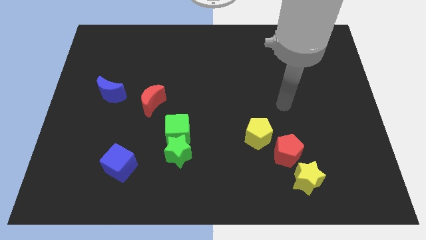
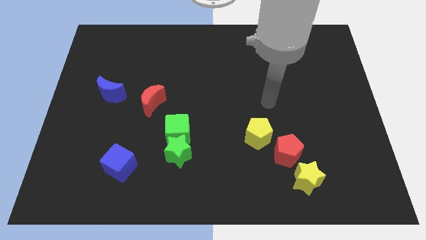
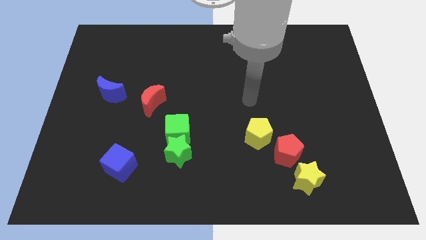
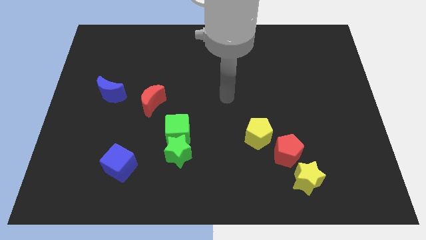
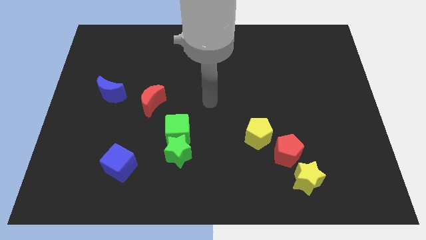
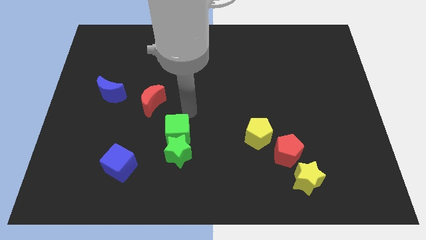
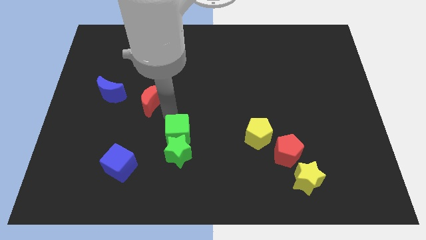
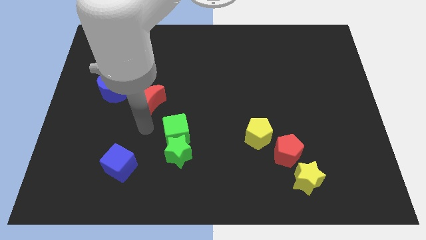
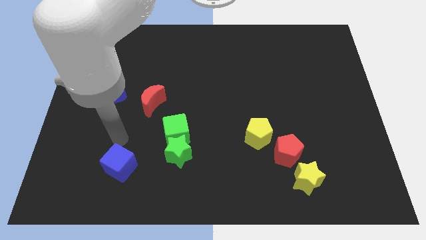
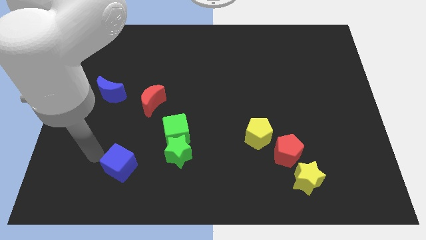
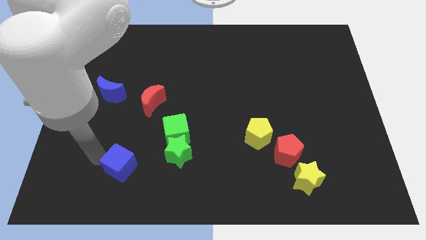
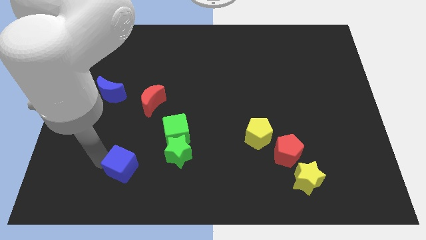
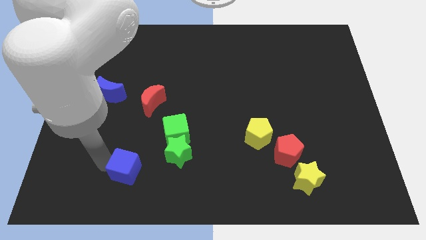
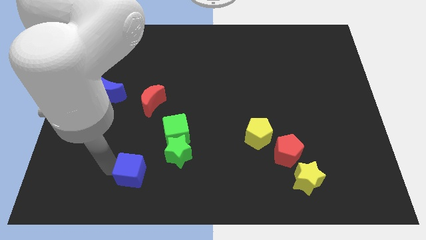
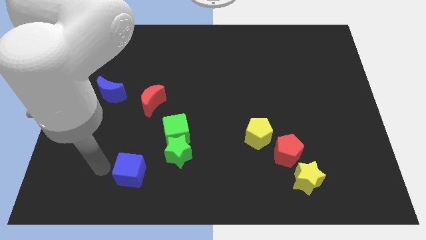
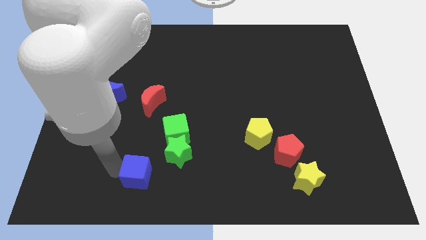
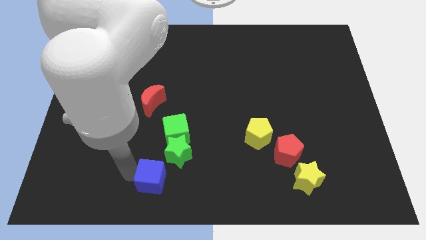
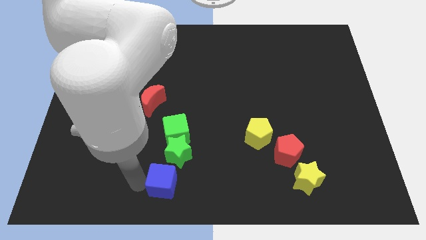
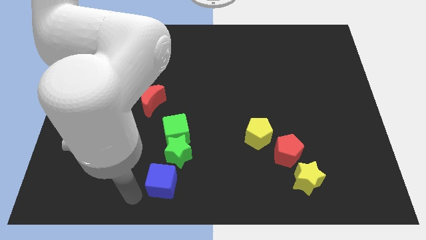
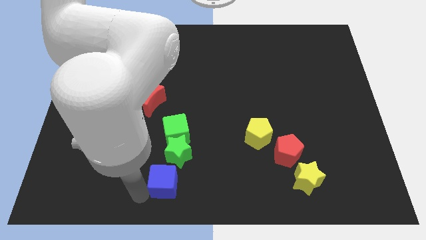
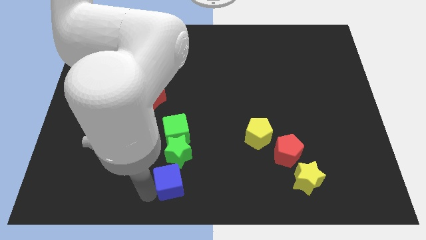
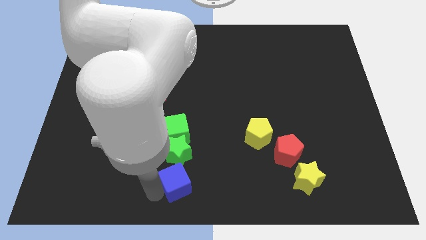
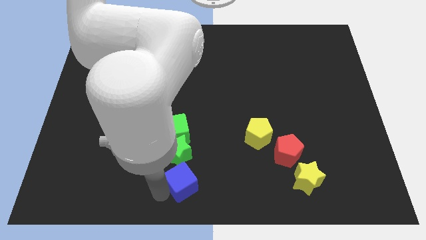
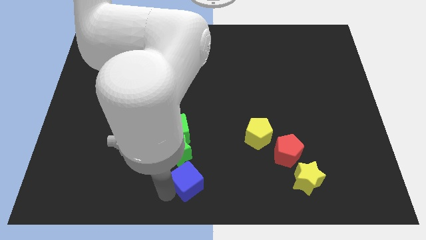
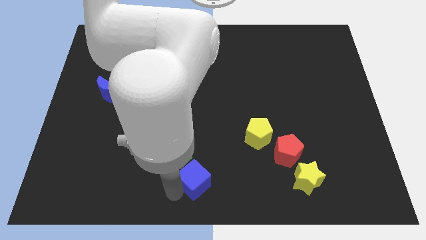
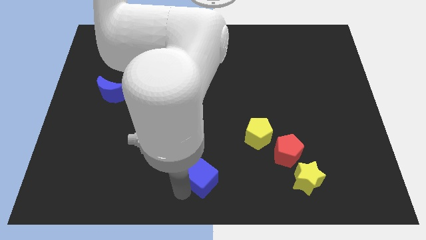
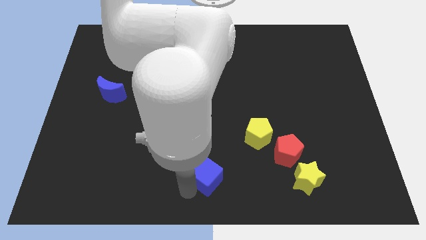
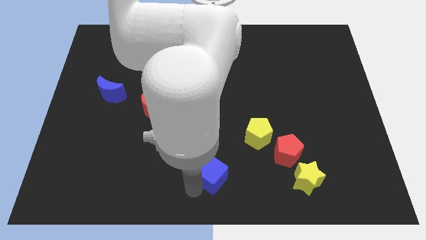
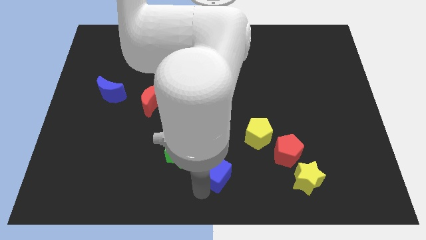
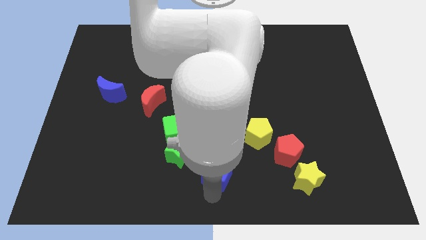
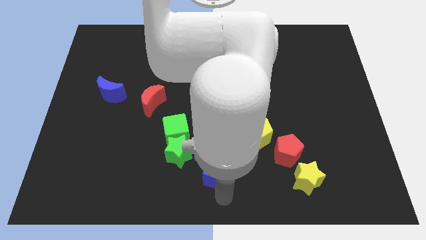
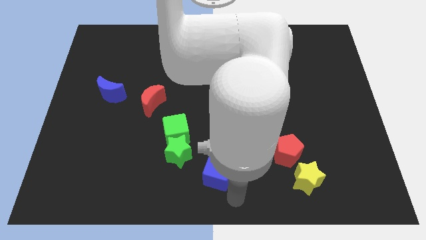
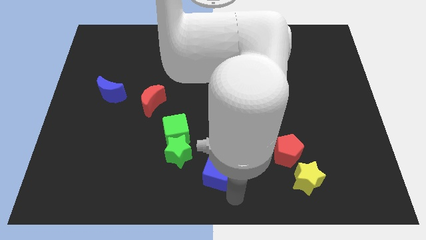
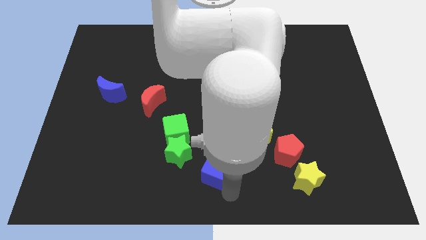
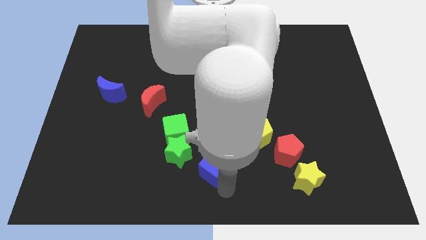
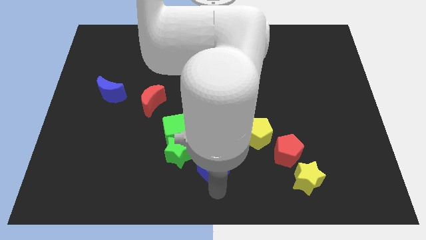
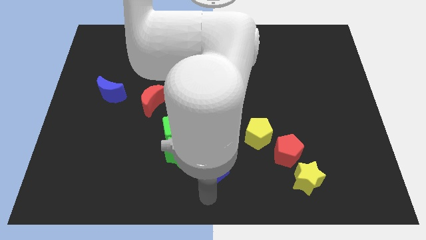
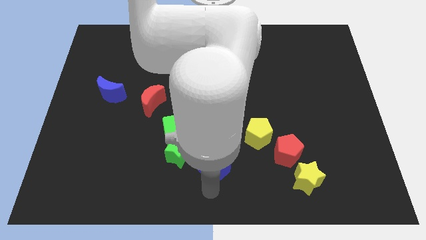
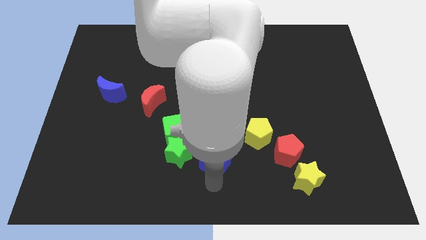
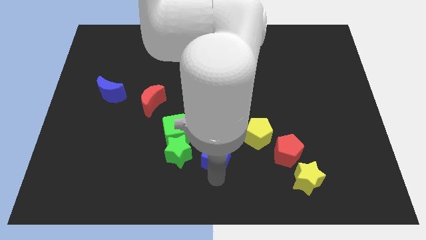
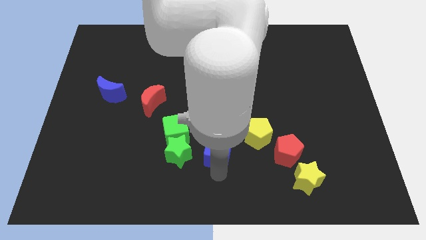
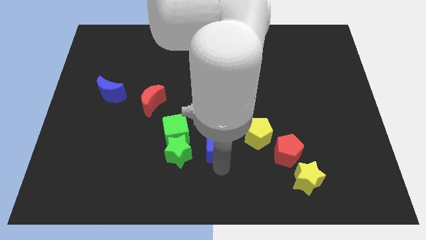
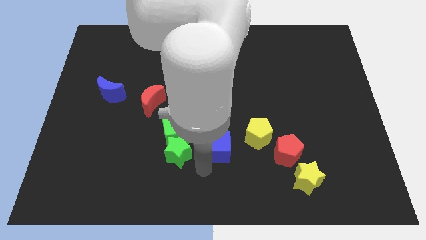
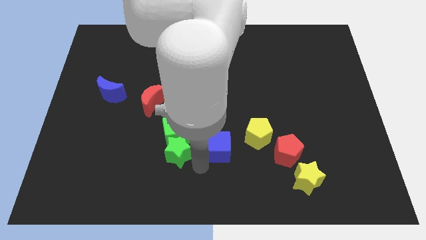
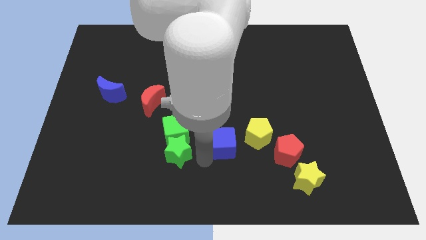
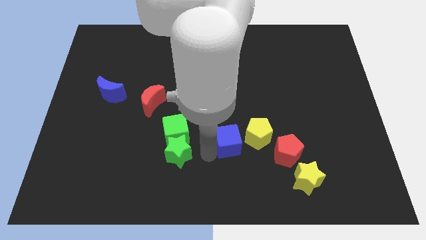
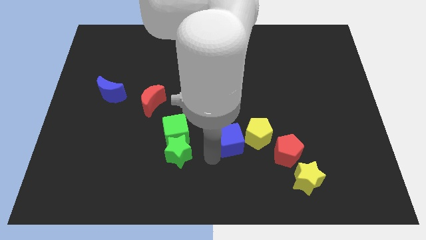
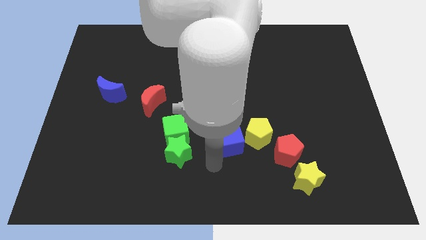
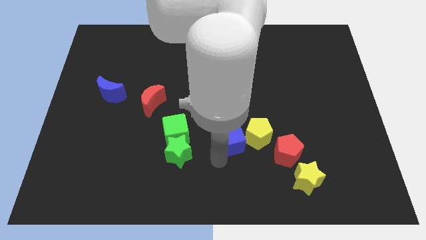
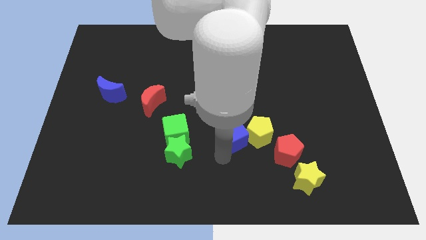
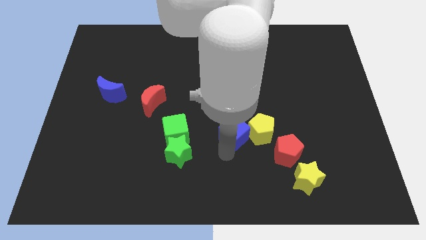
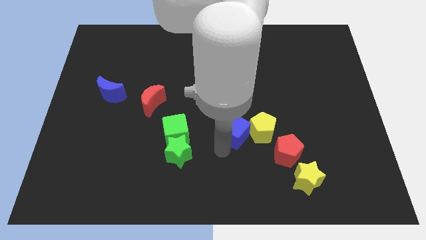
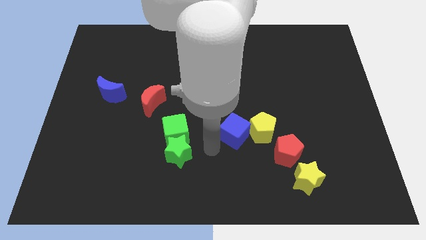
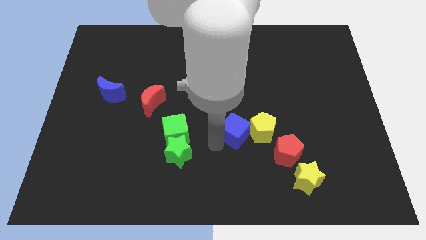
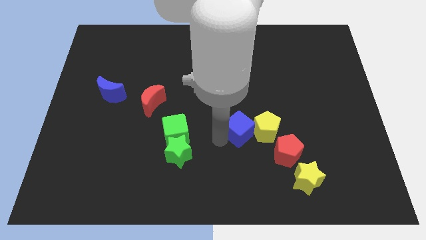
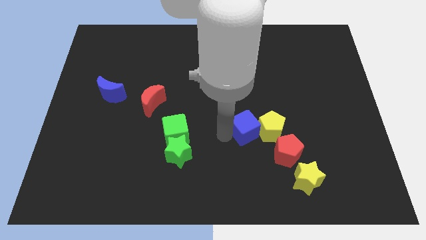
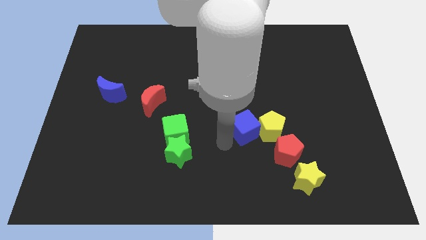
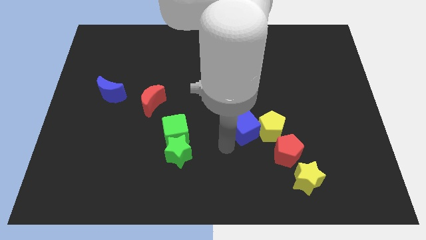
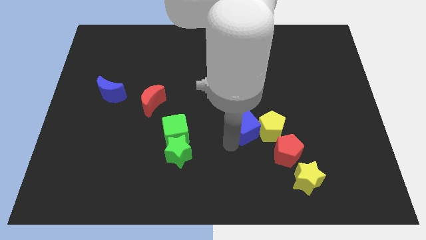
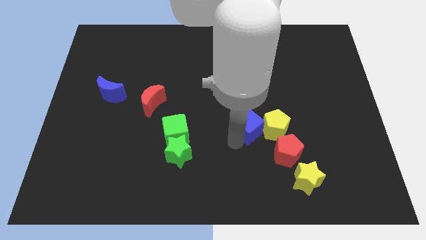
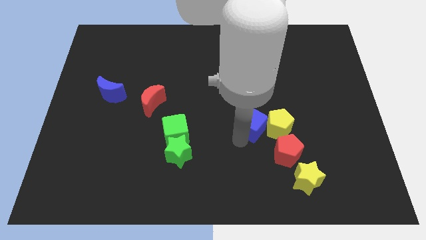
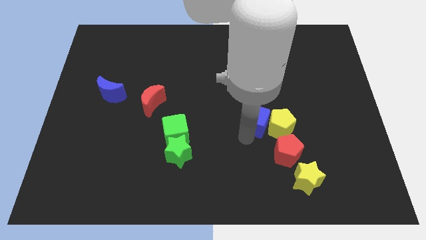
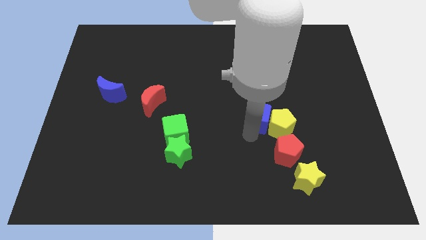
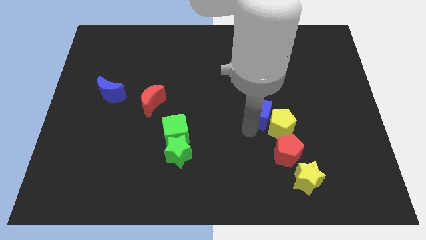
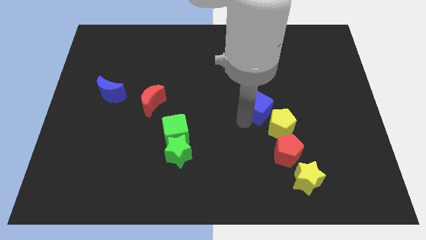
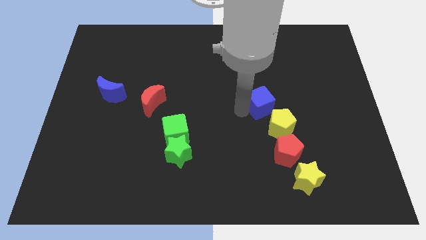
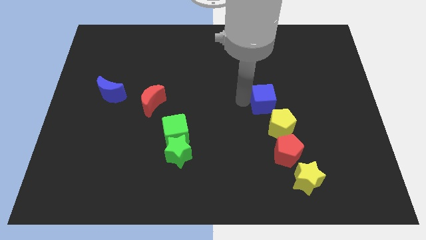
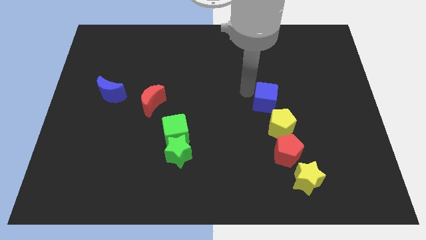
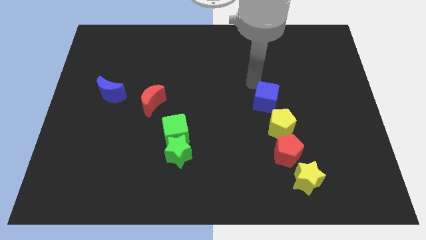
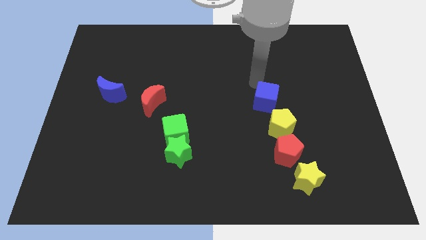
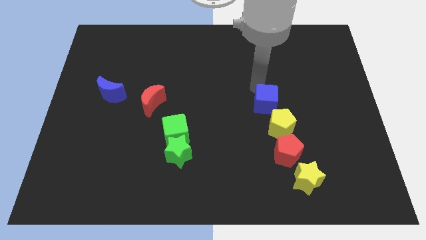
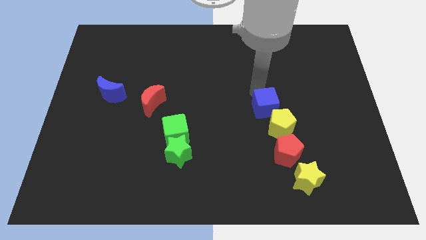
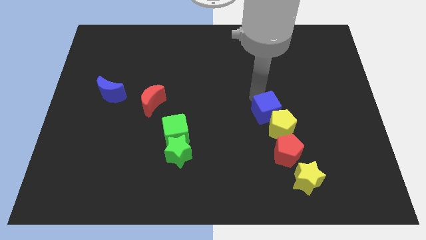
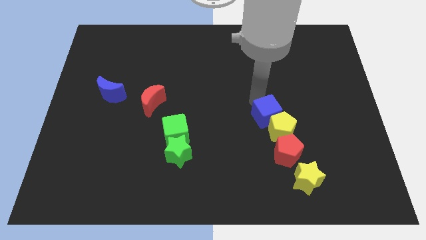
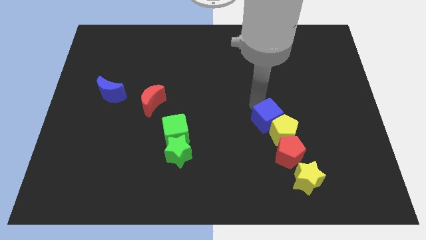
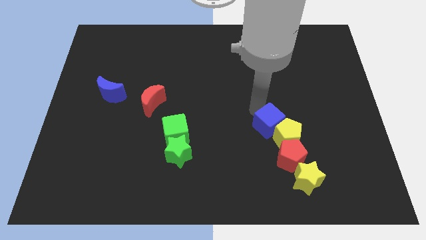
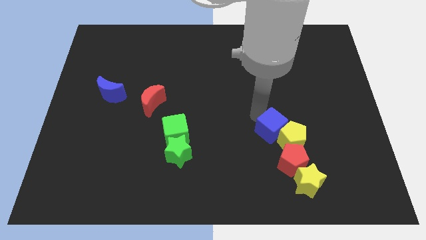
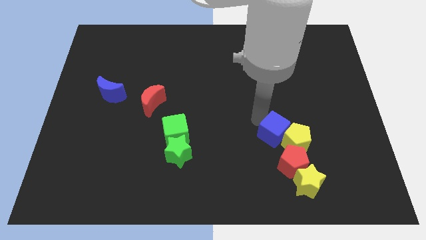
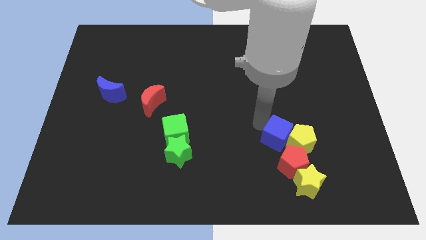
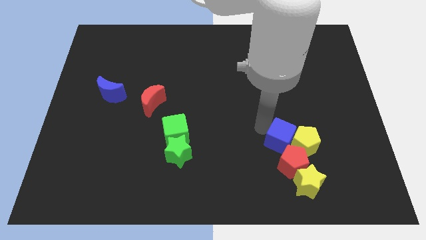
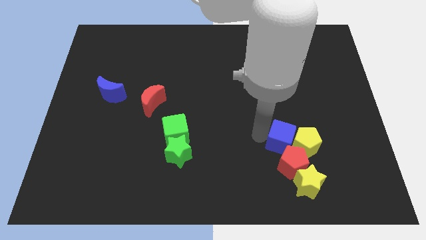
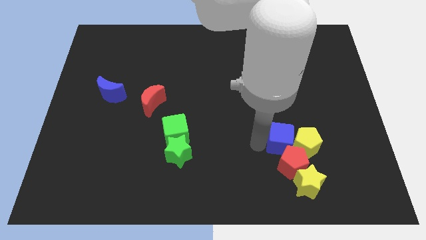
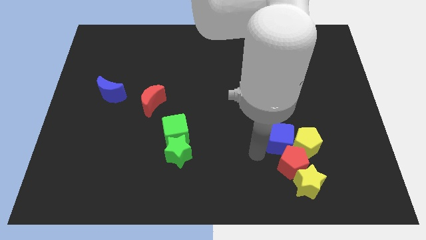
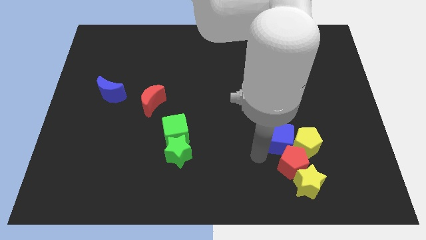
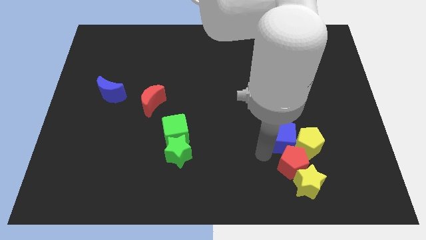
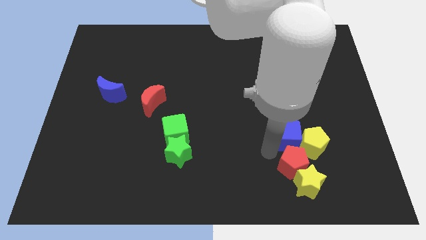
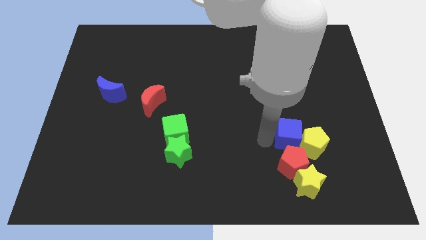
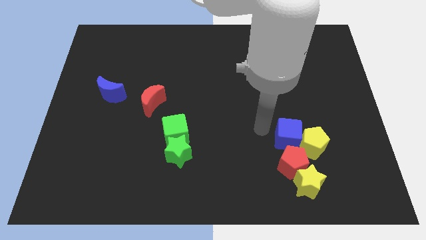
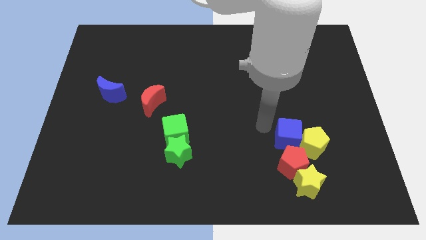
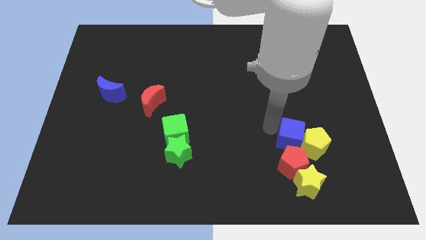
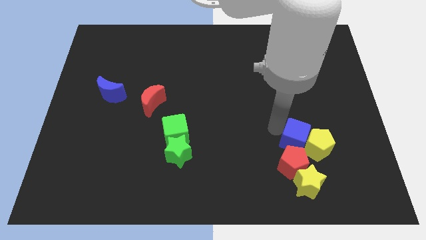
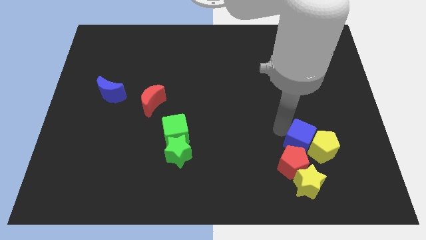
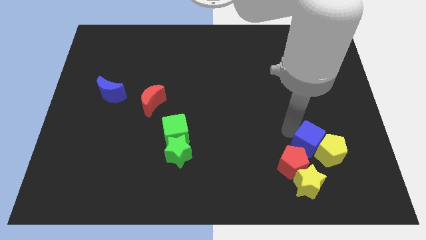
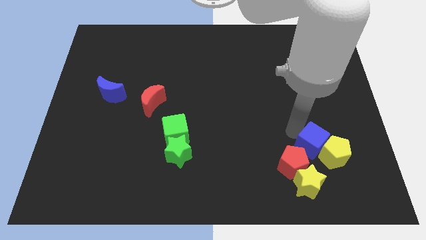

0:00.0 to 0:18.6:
slide the blue cube to the right of the red pentagon
